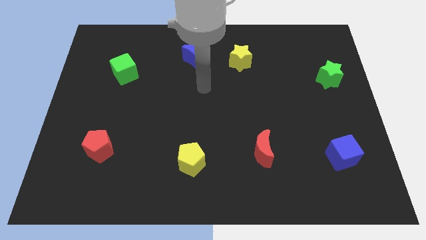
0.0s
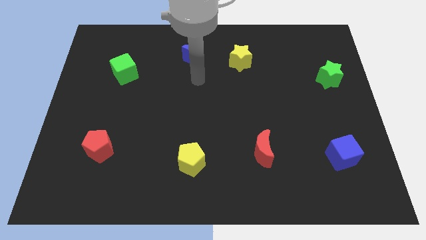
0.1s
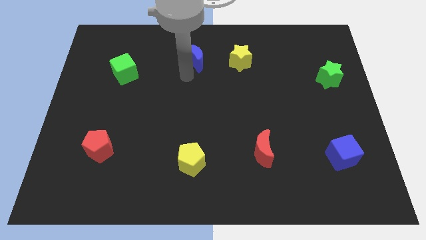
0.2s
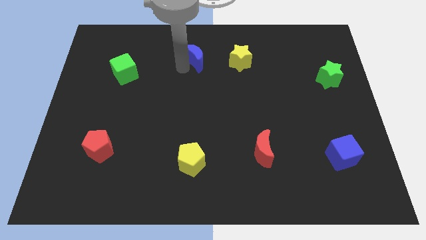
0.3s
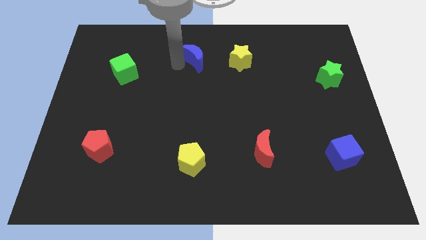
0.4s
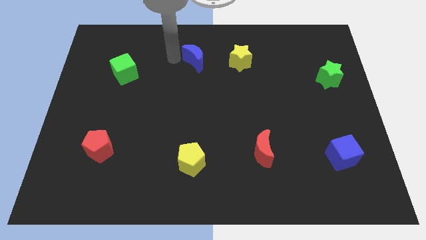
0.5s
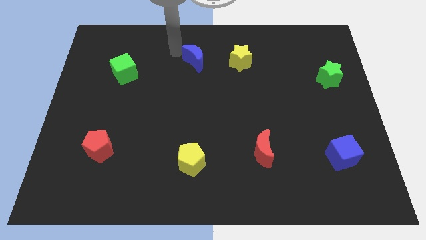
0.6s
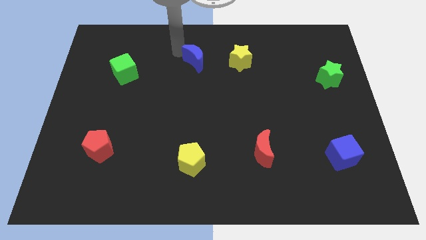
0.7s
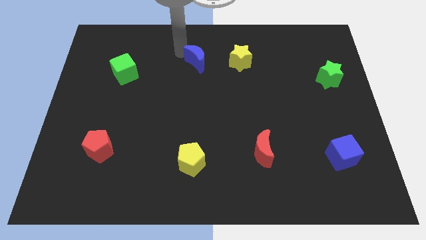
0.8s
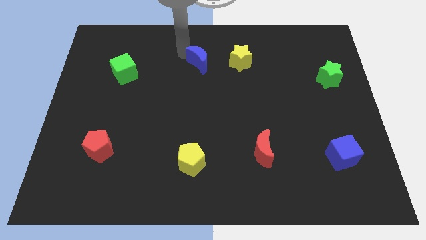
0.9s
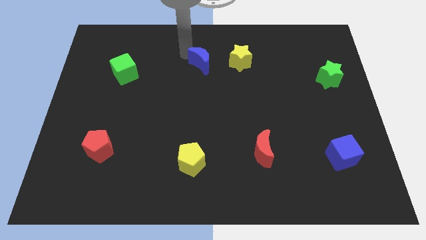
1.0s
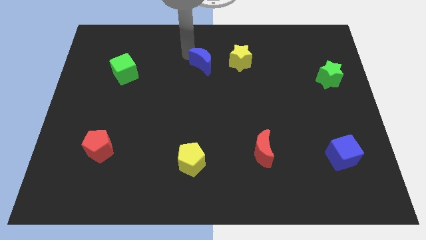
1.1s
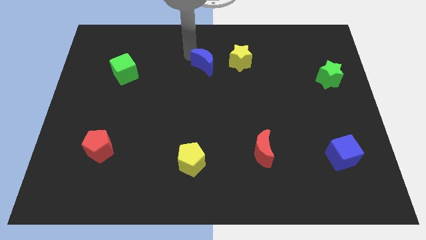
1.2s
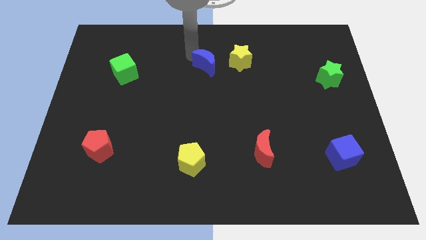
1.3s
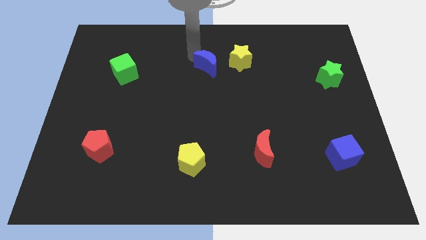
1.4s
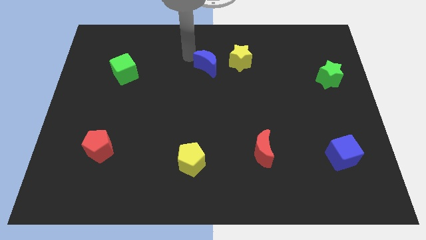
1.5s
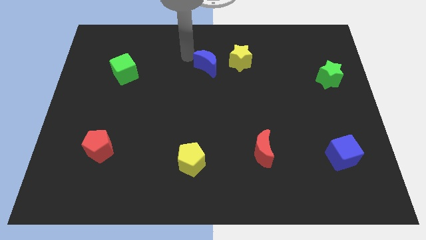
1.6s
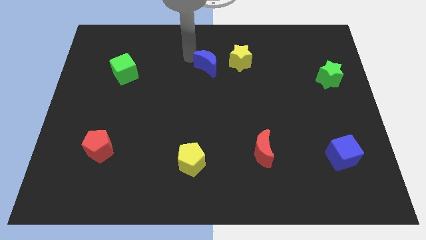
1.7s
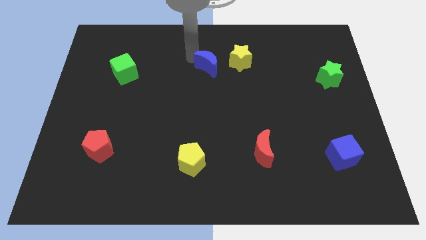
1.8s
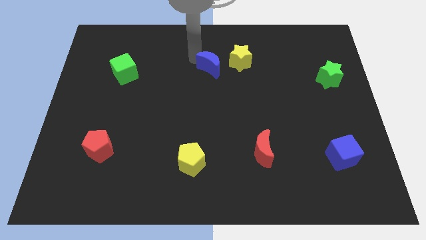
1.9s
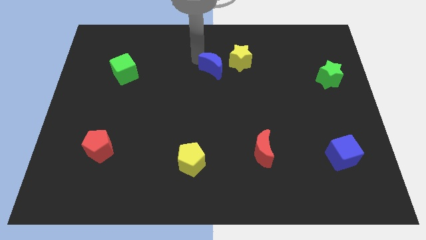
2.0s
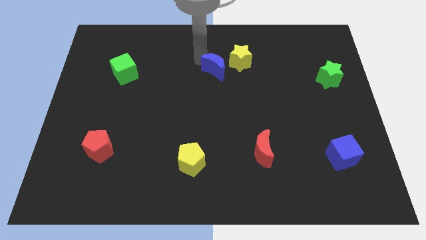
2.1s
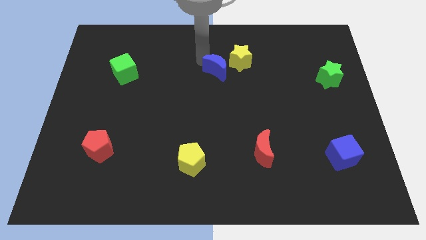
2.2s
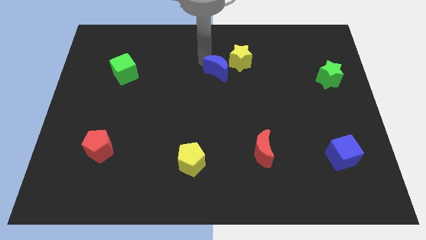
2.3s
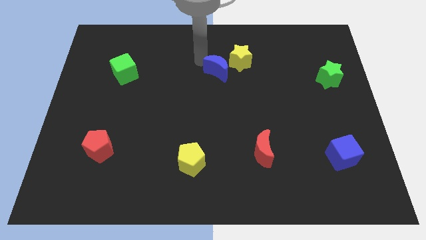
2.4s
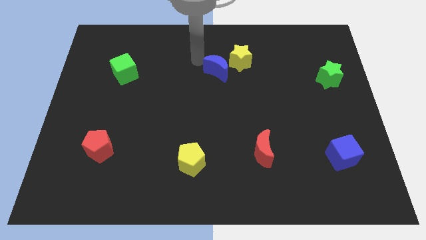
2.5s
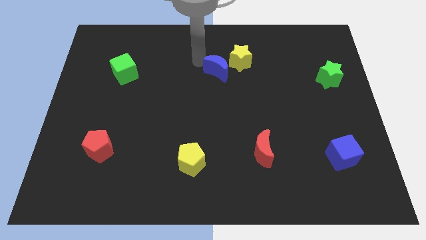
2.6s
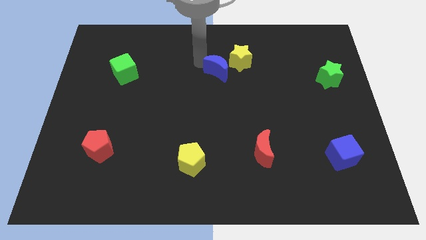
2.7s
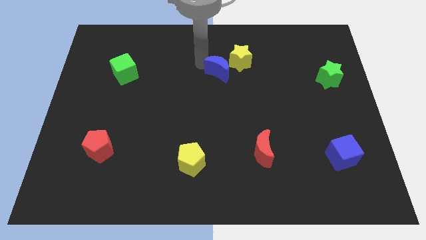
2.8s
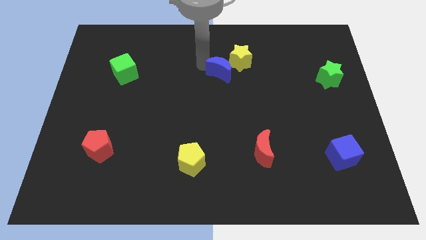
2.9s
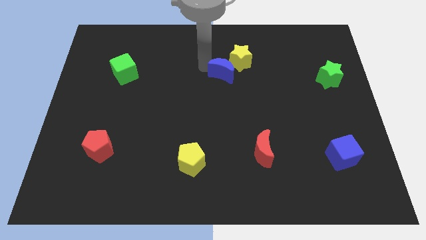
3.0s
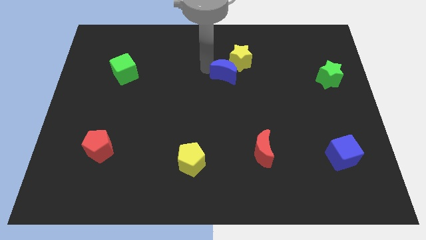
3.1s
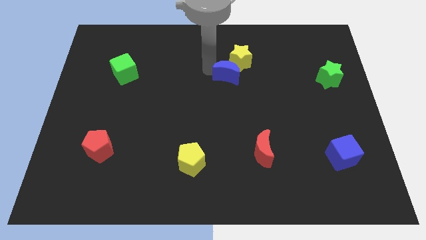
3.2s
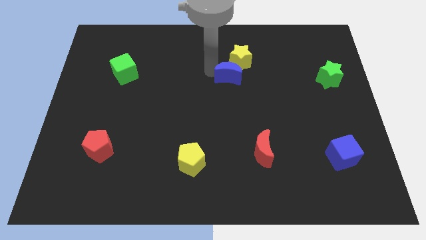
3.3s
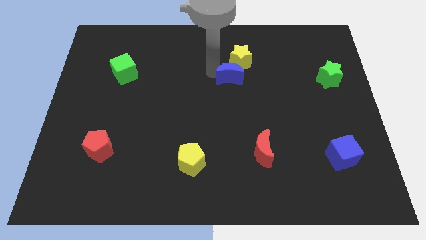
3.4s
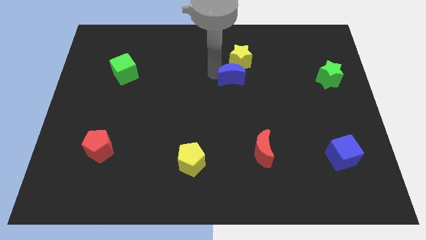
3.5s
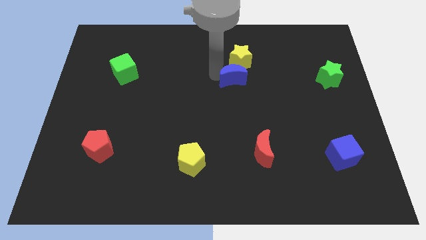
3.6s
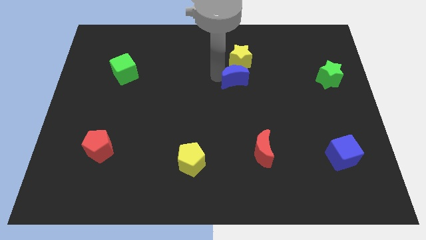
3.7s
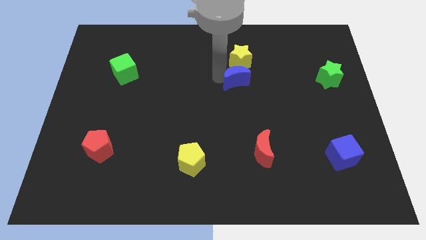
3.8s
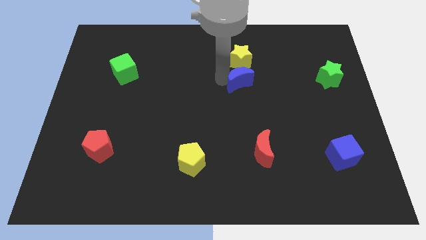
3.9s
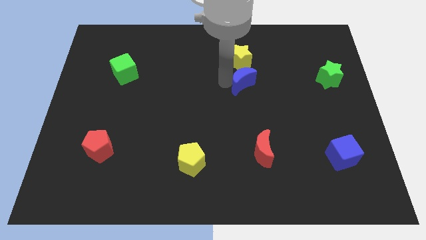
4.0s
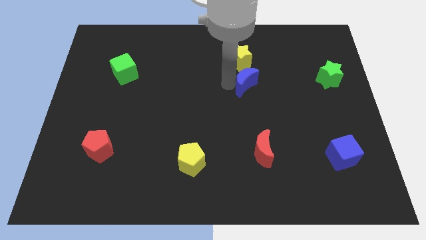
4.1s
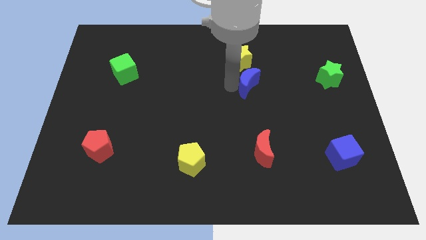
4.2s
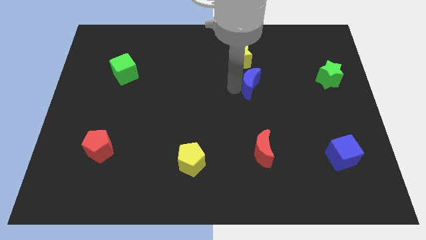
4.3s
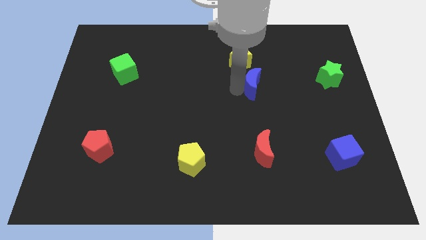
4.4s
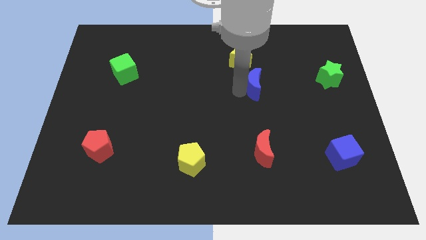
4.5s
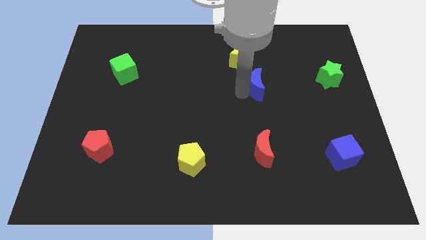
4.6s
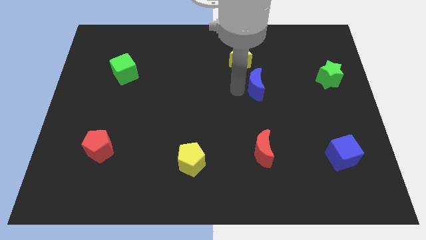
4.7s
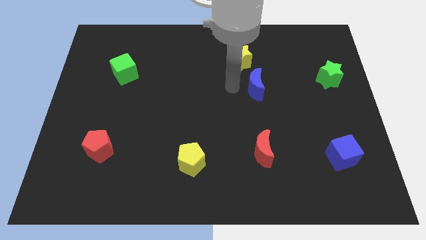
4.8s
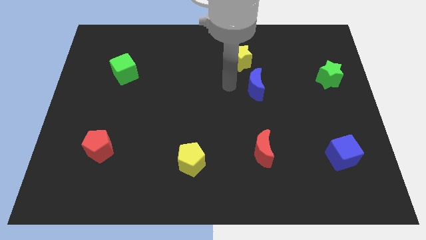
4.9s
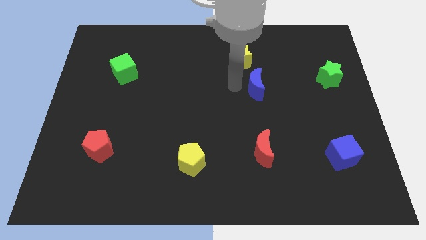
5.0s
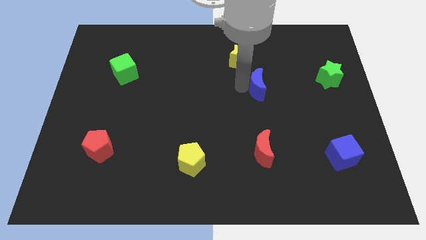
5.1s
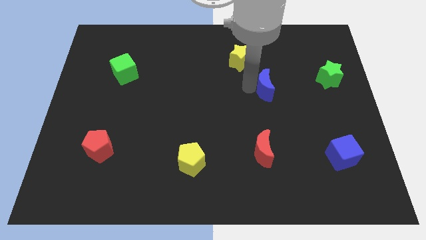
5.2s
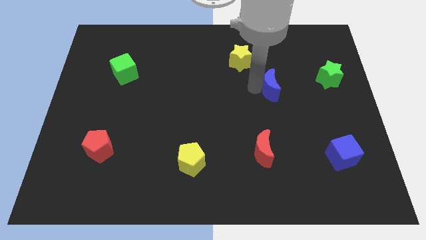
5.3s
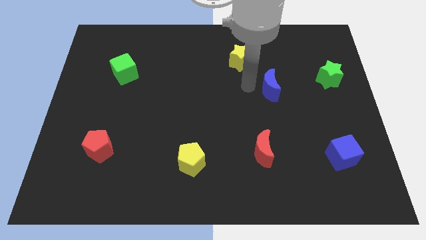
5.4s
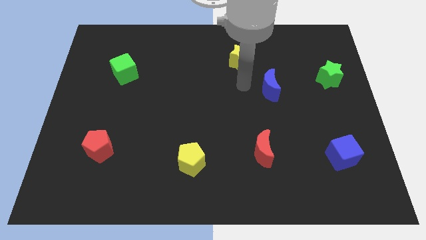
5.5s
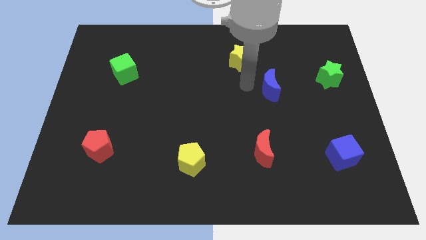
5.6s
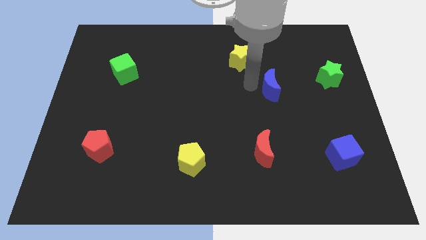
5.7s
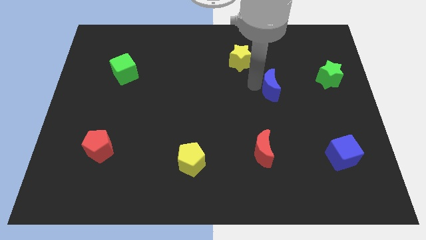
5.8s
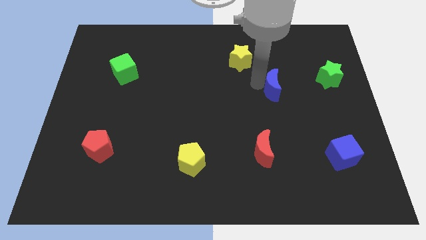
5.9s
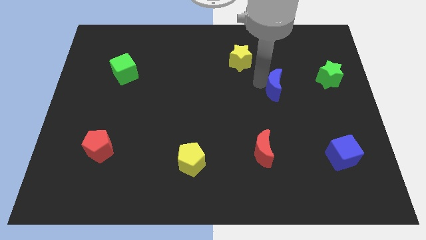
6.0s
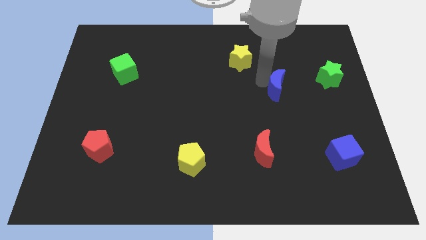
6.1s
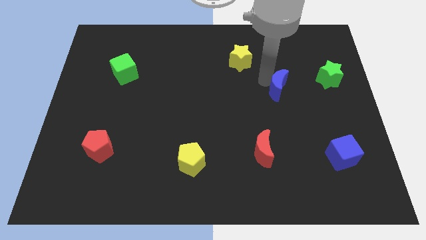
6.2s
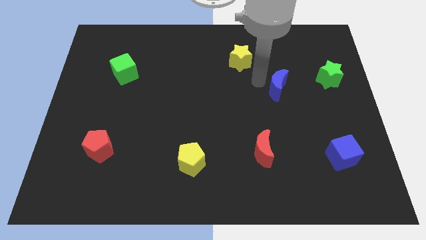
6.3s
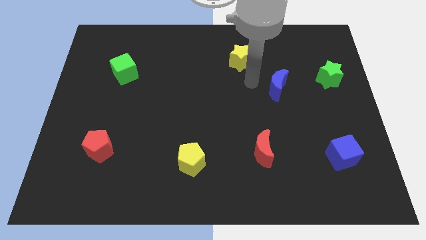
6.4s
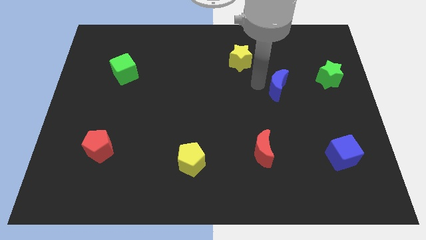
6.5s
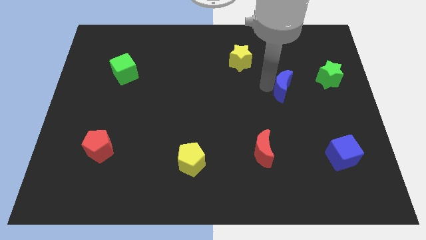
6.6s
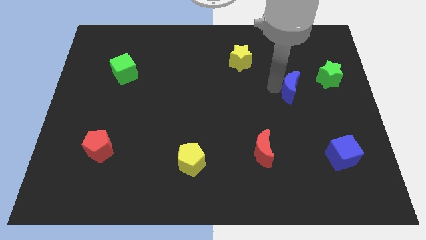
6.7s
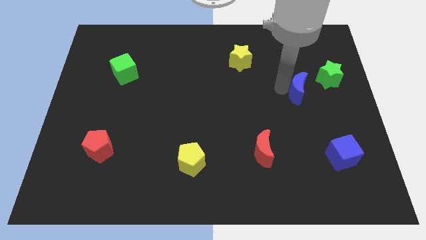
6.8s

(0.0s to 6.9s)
push the blue moon to the bottom left of the green star

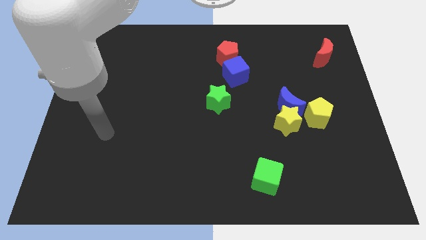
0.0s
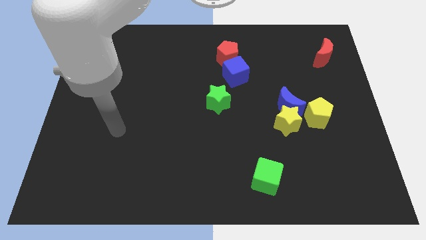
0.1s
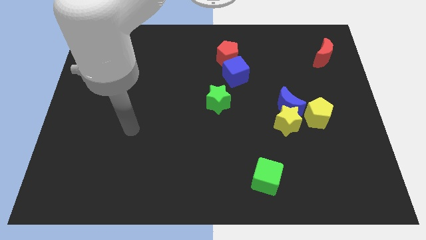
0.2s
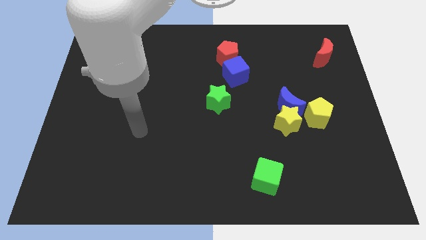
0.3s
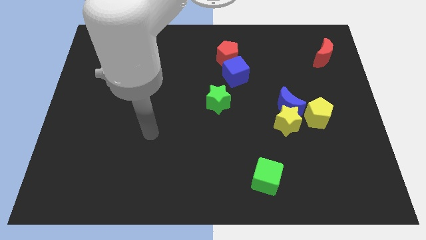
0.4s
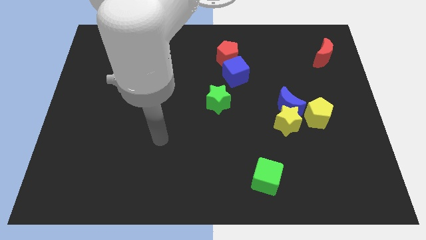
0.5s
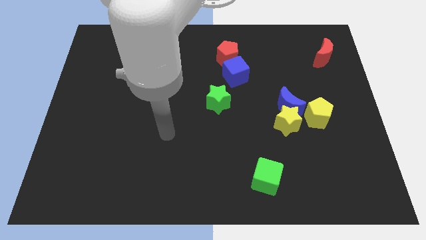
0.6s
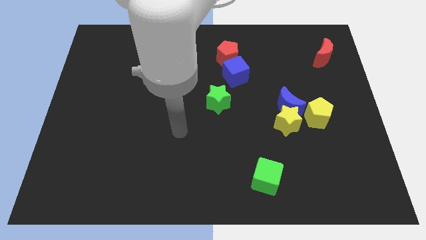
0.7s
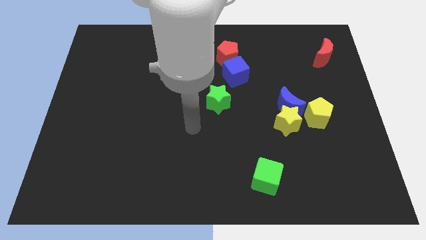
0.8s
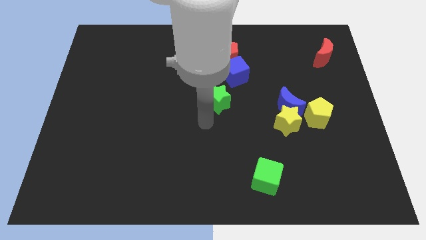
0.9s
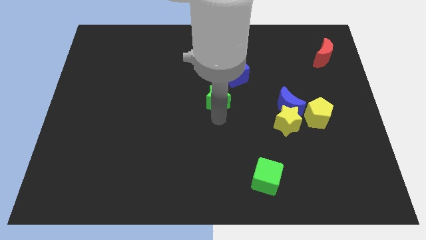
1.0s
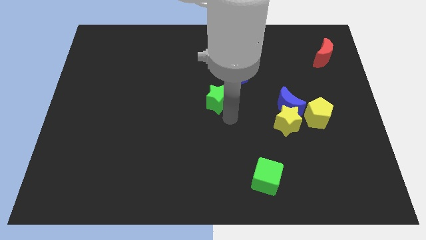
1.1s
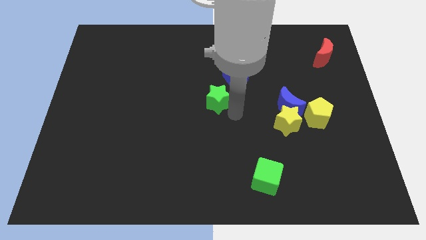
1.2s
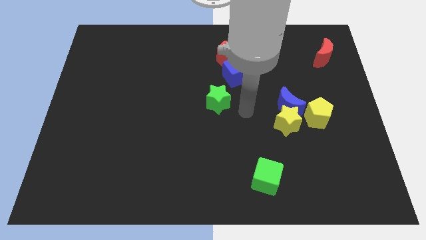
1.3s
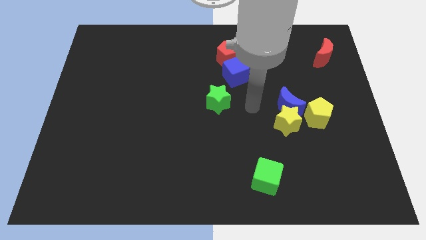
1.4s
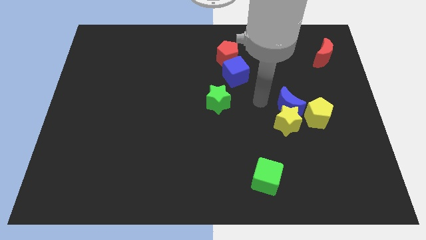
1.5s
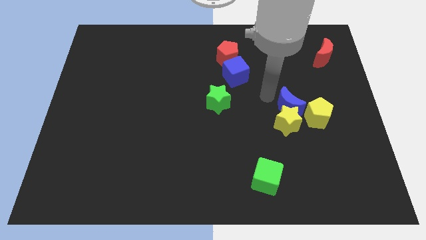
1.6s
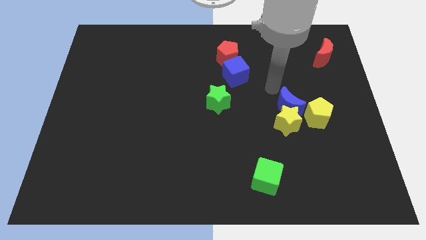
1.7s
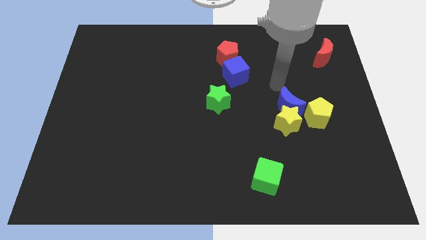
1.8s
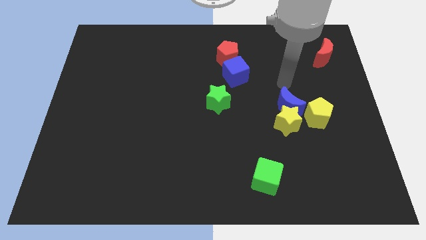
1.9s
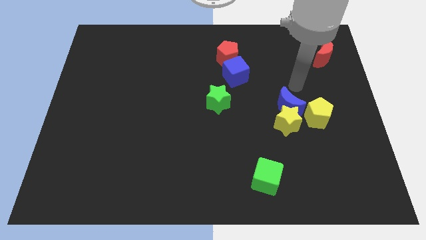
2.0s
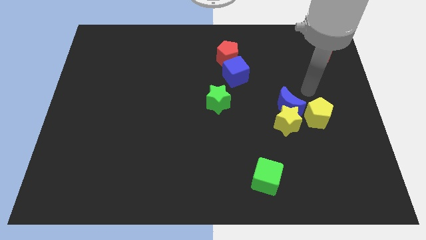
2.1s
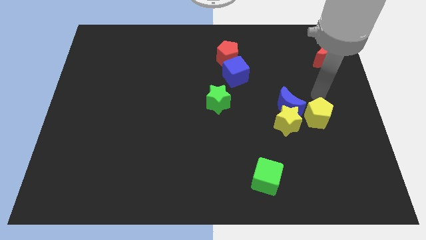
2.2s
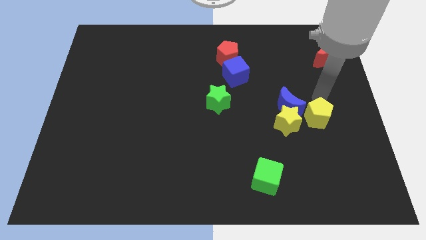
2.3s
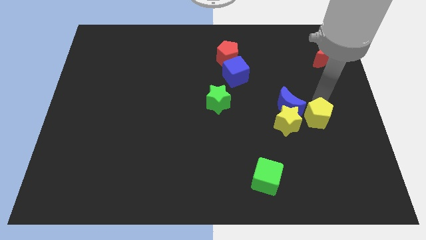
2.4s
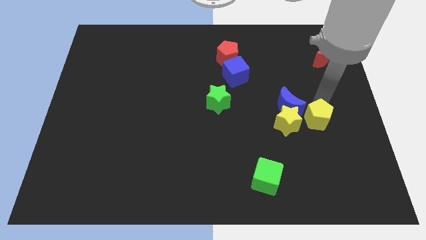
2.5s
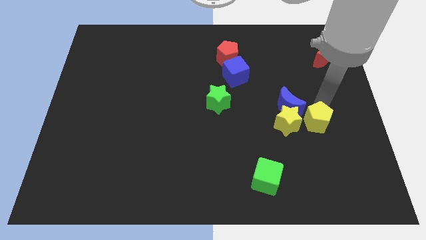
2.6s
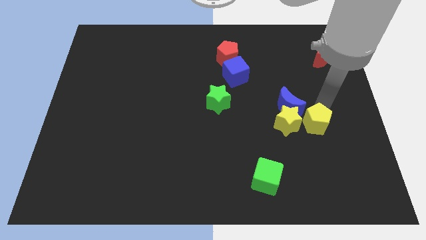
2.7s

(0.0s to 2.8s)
put the yellow pentagon diagonally down and to the right of the yellow star
